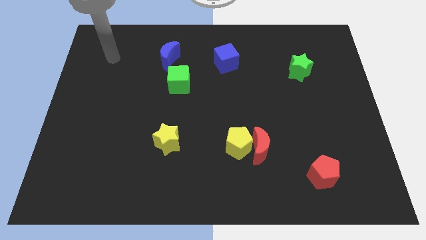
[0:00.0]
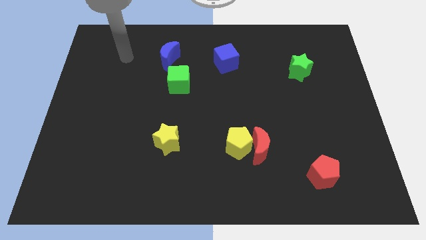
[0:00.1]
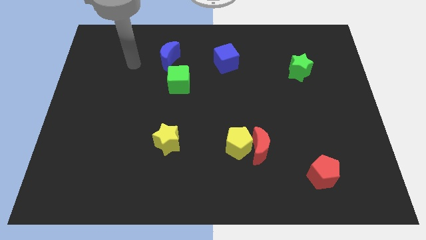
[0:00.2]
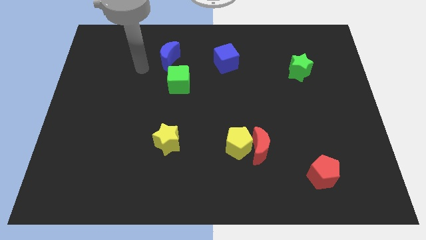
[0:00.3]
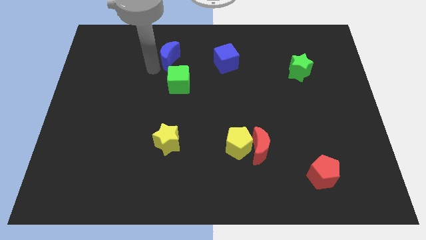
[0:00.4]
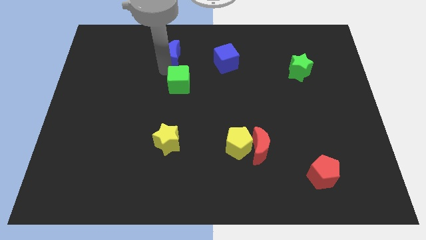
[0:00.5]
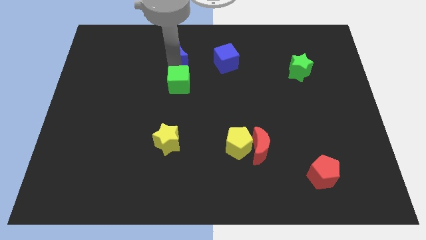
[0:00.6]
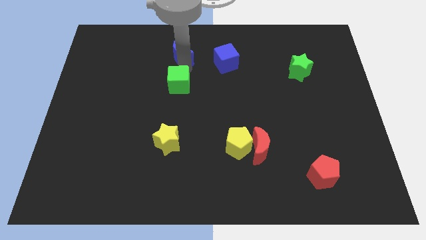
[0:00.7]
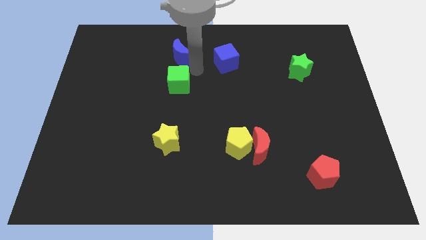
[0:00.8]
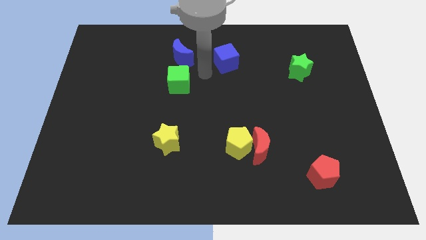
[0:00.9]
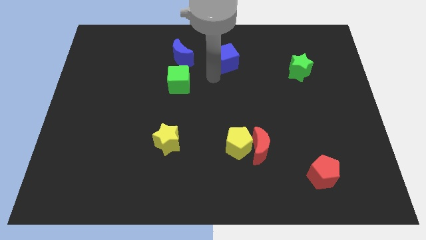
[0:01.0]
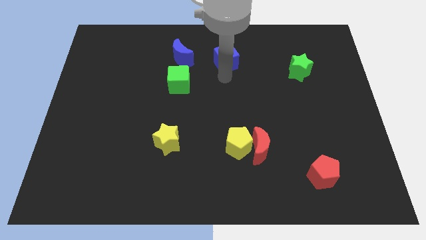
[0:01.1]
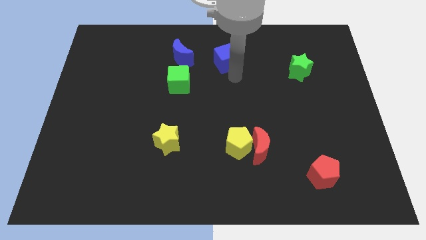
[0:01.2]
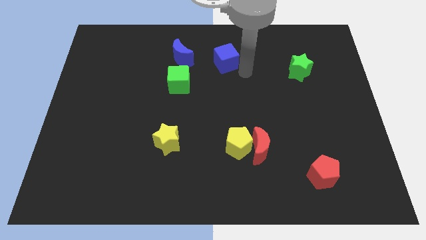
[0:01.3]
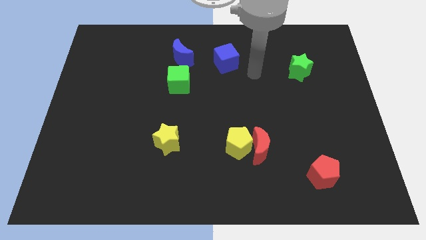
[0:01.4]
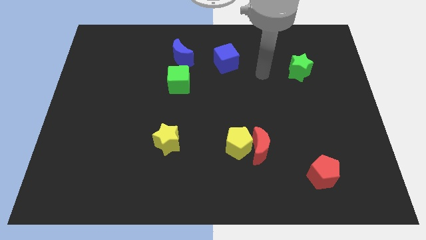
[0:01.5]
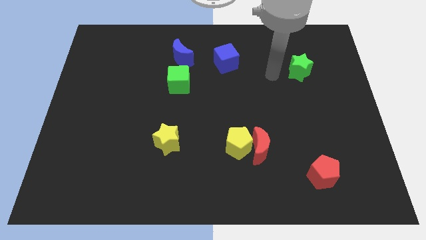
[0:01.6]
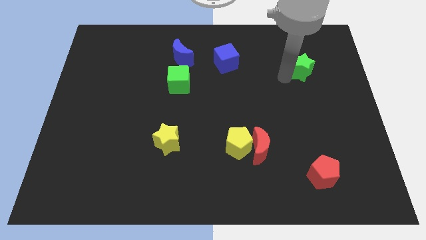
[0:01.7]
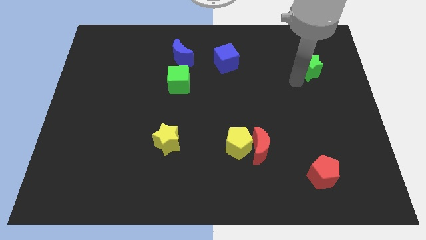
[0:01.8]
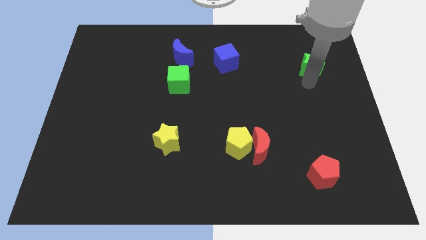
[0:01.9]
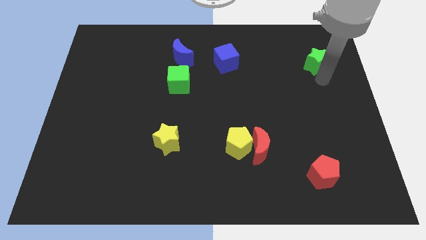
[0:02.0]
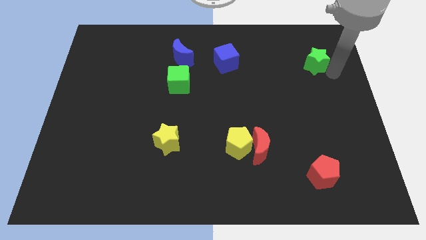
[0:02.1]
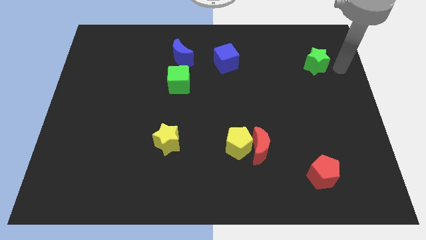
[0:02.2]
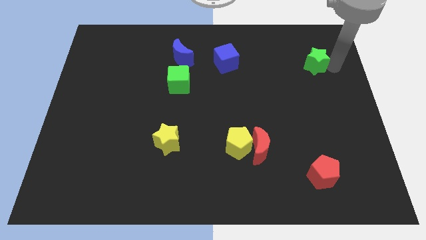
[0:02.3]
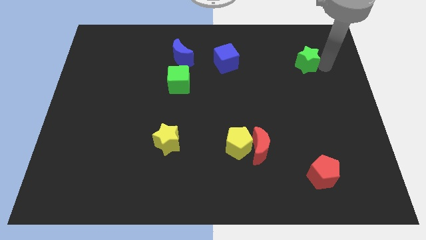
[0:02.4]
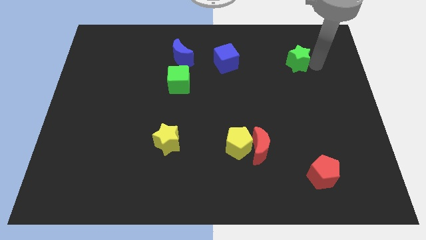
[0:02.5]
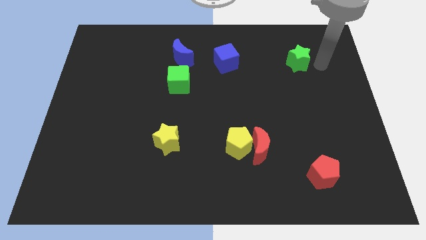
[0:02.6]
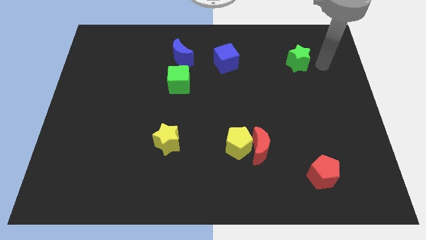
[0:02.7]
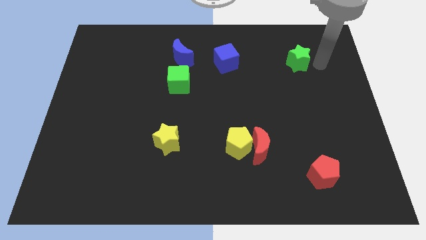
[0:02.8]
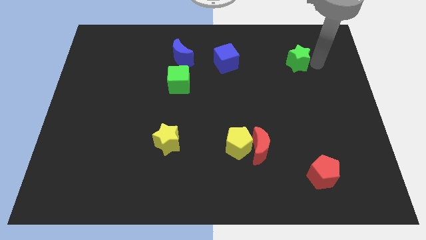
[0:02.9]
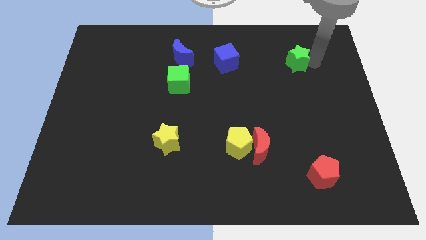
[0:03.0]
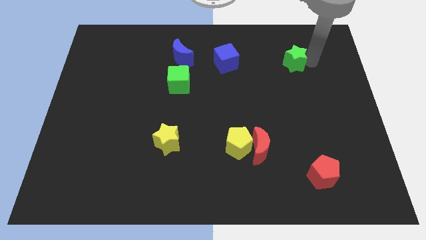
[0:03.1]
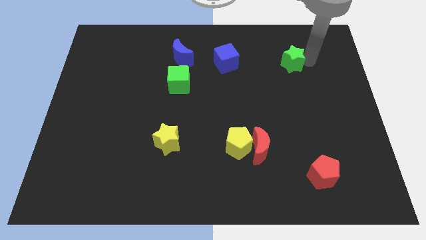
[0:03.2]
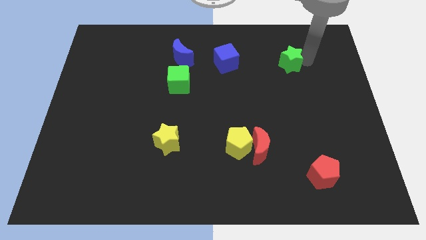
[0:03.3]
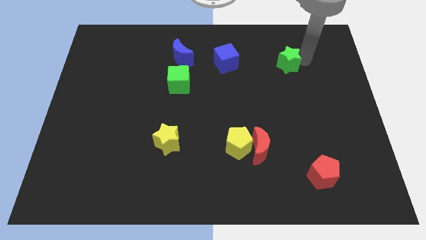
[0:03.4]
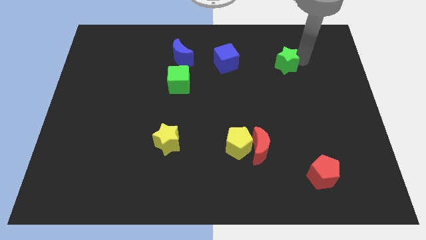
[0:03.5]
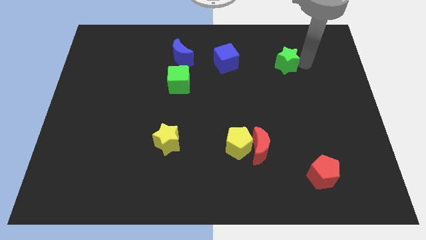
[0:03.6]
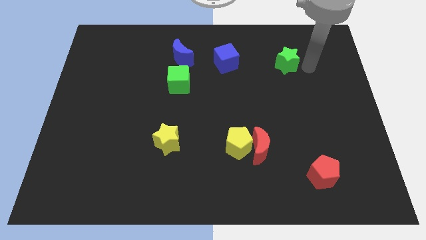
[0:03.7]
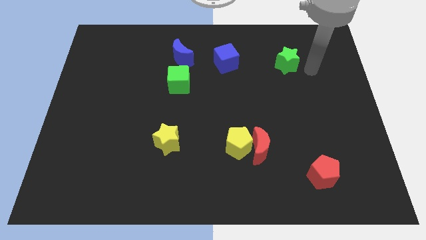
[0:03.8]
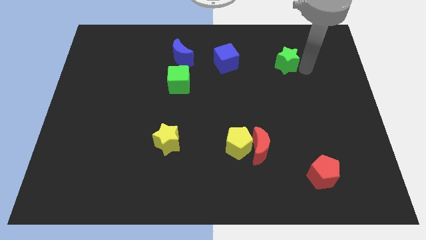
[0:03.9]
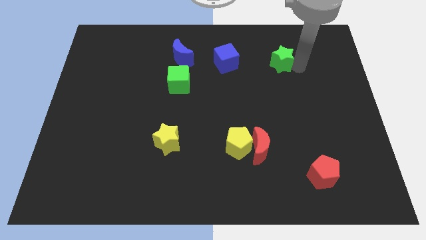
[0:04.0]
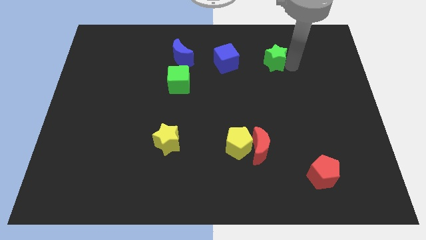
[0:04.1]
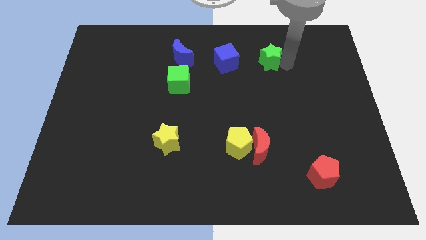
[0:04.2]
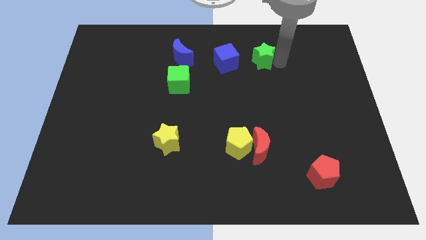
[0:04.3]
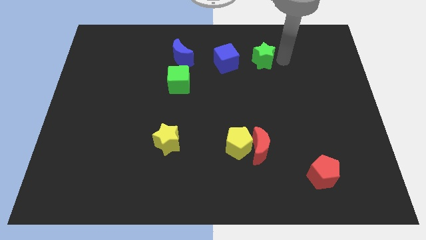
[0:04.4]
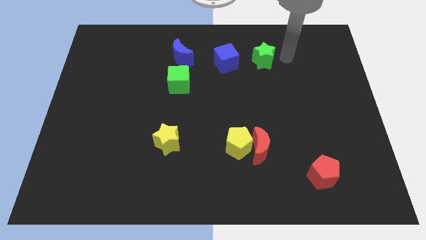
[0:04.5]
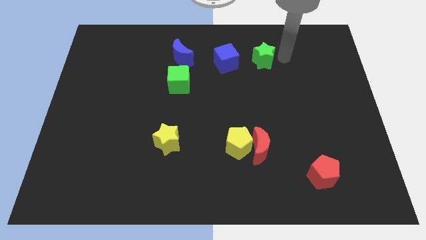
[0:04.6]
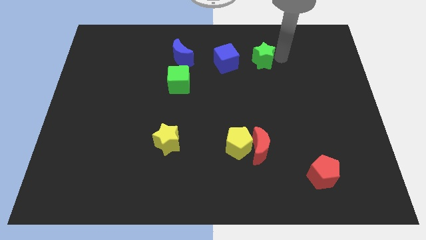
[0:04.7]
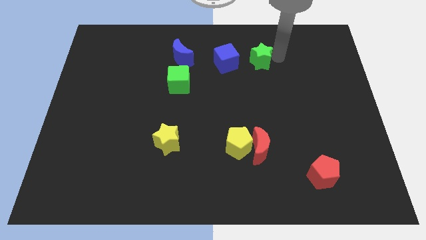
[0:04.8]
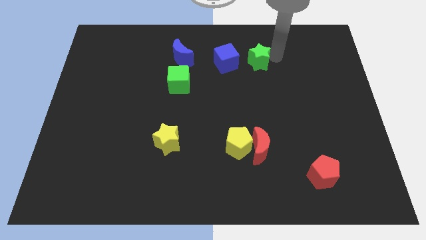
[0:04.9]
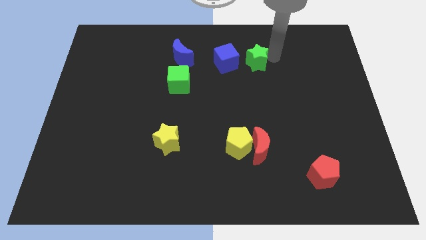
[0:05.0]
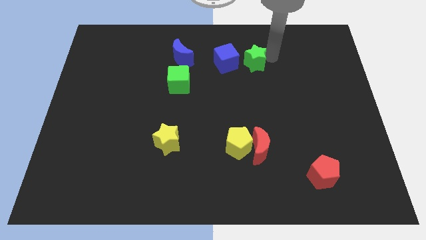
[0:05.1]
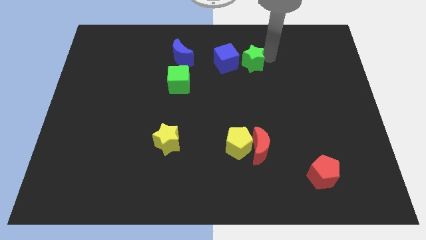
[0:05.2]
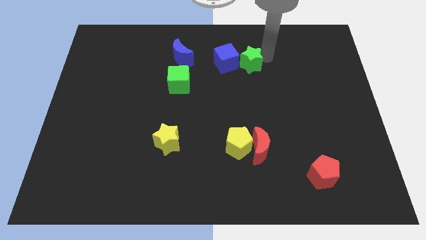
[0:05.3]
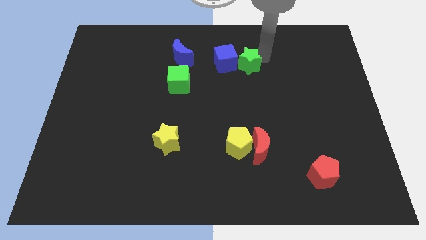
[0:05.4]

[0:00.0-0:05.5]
put the green star to the blue cube

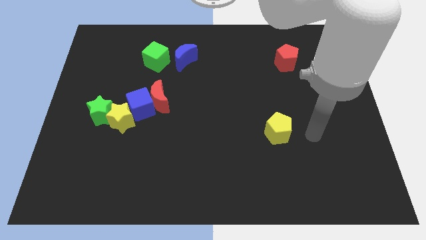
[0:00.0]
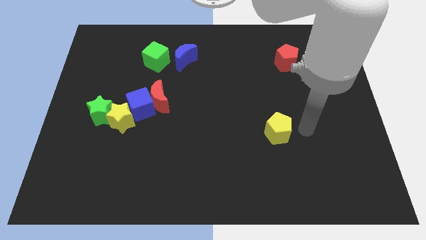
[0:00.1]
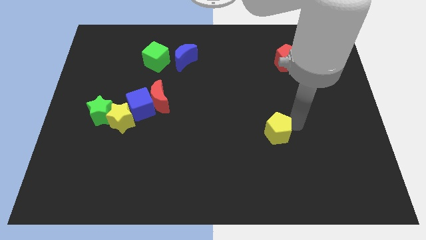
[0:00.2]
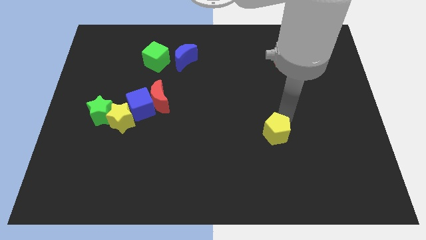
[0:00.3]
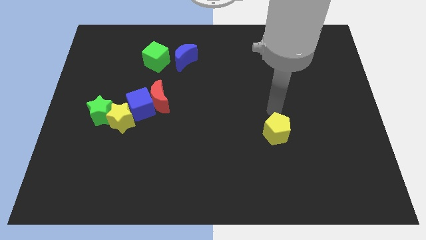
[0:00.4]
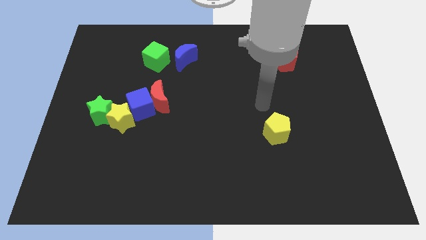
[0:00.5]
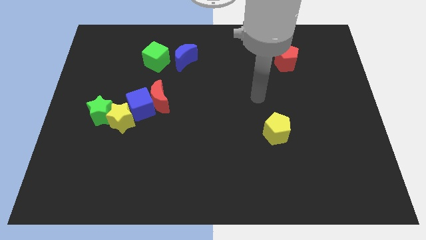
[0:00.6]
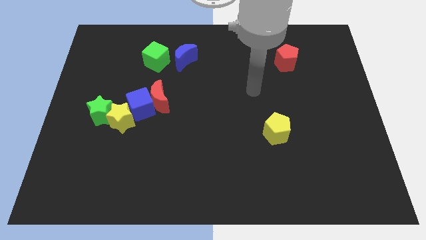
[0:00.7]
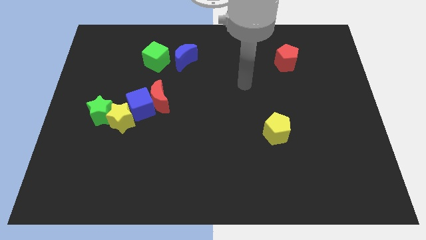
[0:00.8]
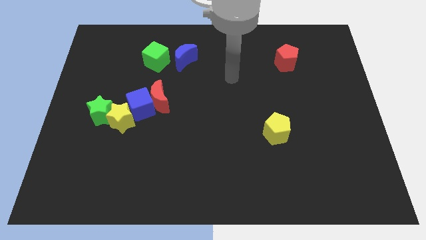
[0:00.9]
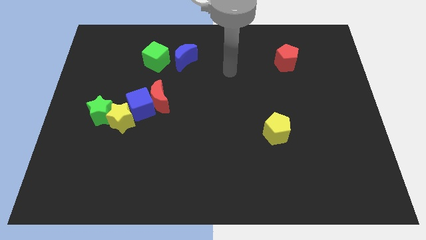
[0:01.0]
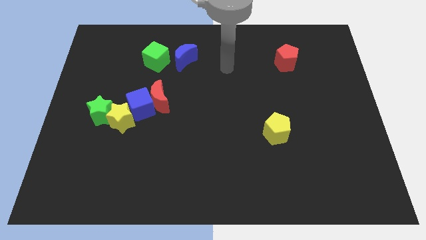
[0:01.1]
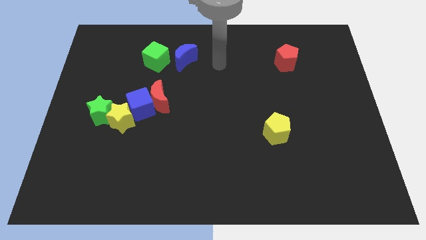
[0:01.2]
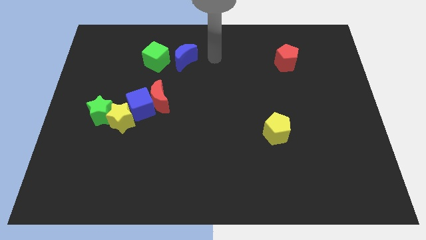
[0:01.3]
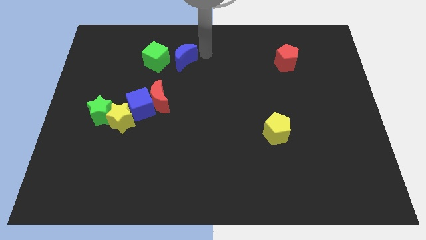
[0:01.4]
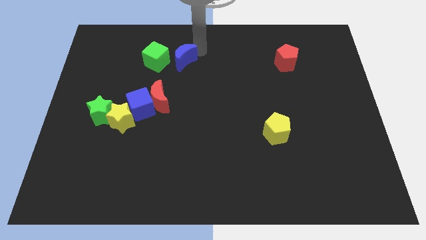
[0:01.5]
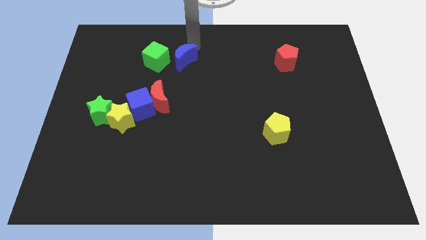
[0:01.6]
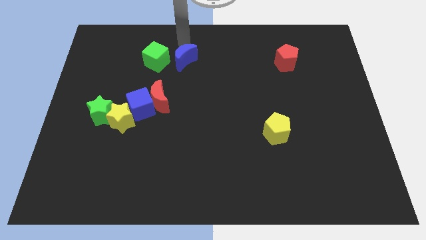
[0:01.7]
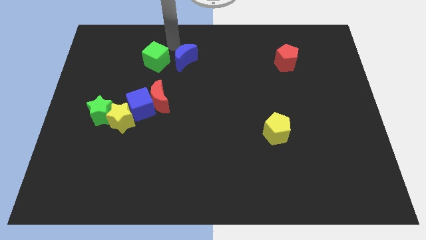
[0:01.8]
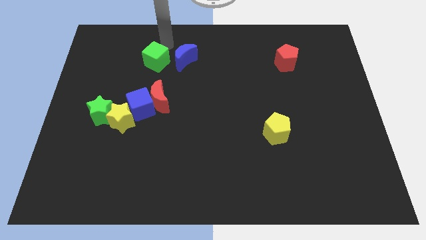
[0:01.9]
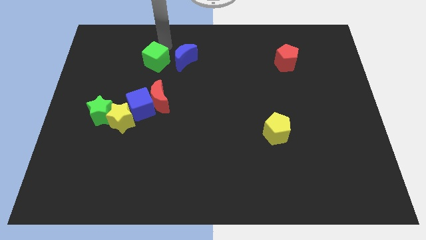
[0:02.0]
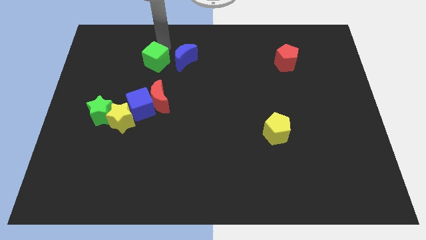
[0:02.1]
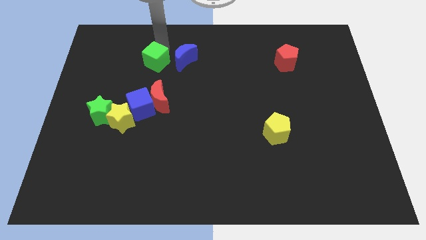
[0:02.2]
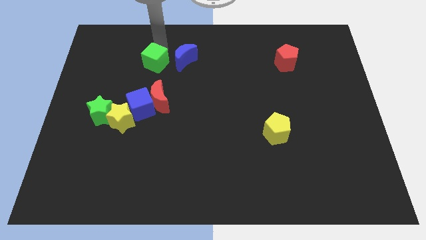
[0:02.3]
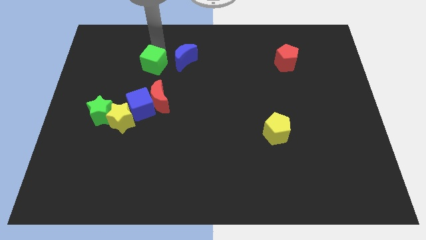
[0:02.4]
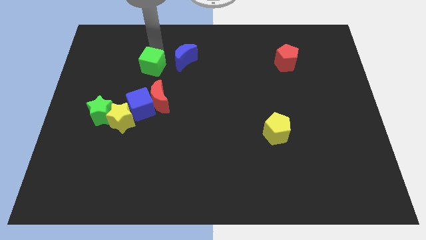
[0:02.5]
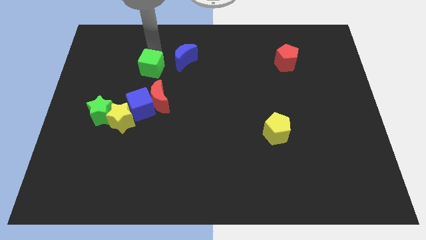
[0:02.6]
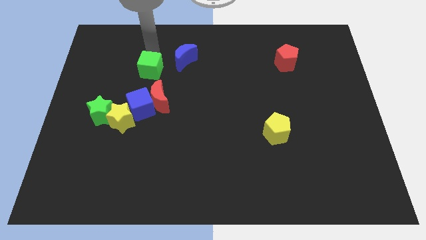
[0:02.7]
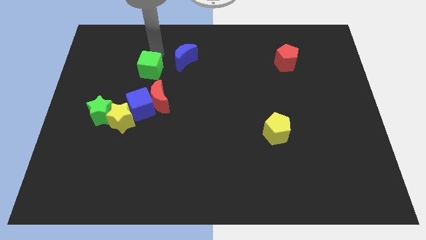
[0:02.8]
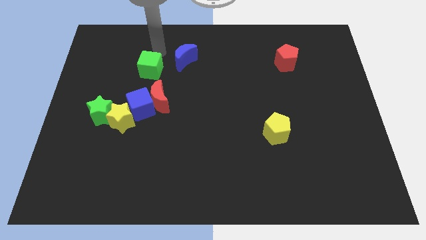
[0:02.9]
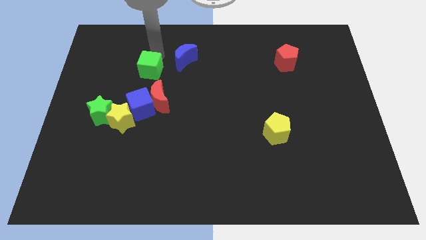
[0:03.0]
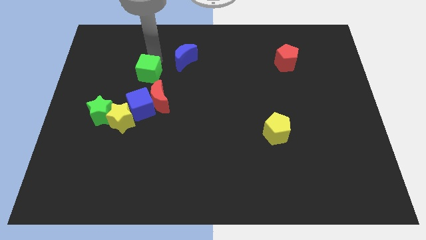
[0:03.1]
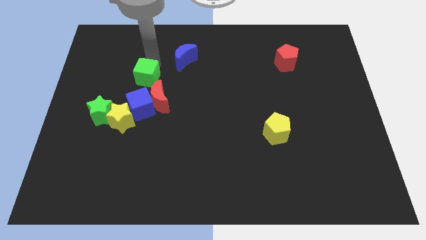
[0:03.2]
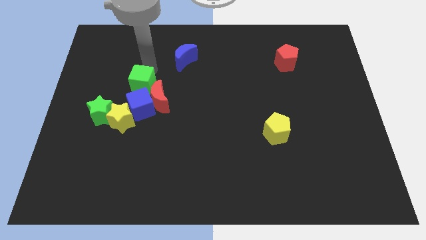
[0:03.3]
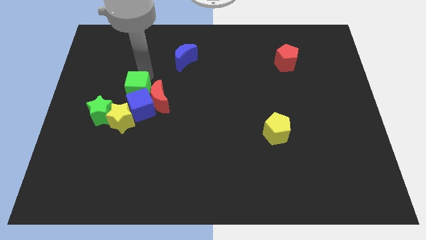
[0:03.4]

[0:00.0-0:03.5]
slide the green cube close to the blue cube
